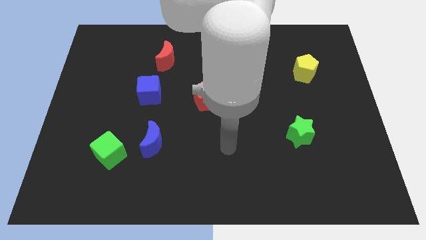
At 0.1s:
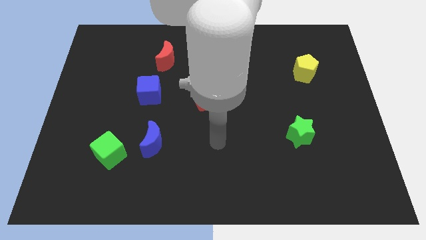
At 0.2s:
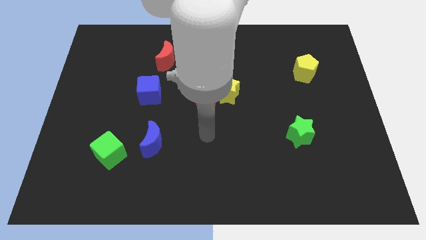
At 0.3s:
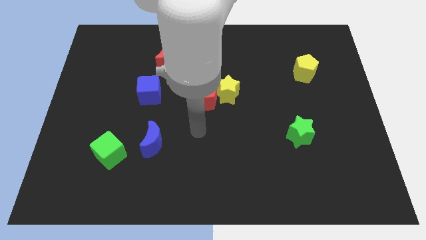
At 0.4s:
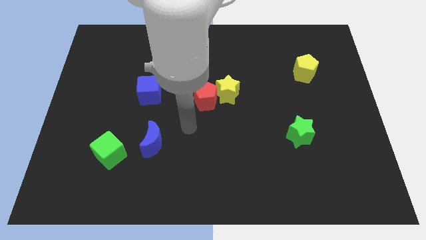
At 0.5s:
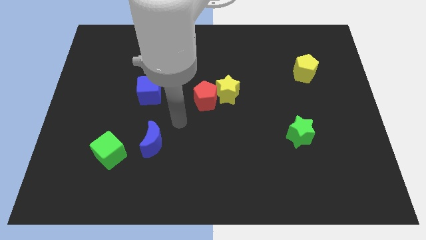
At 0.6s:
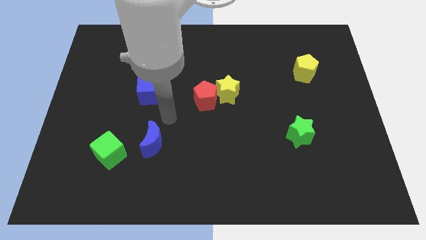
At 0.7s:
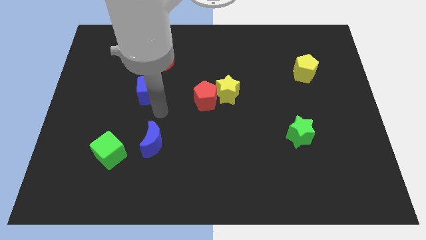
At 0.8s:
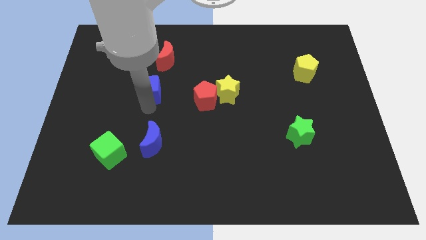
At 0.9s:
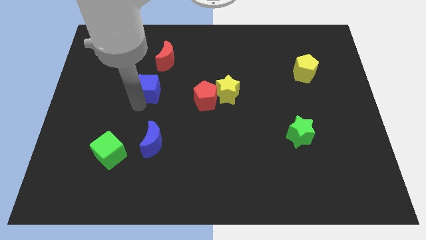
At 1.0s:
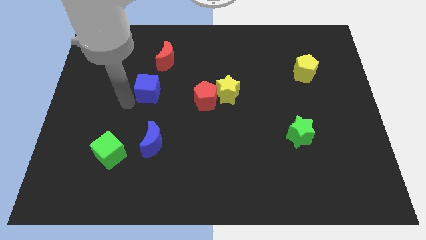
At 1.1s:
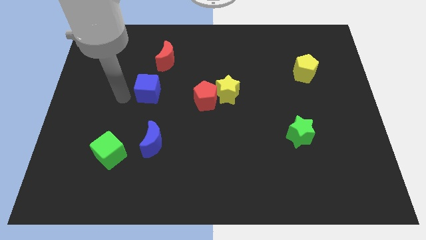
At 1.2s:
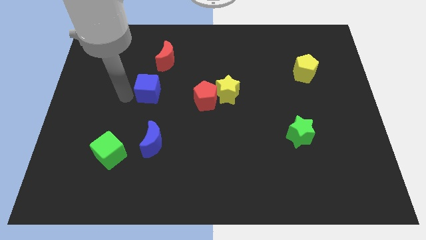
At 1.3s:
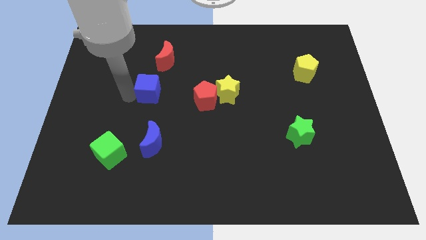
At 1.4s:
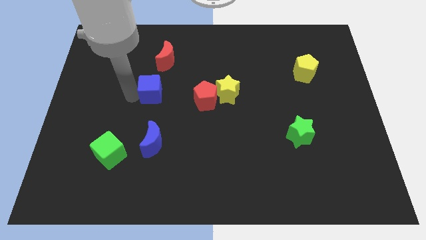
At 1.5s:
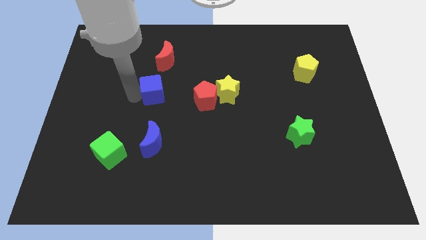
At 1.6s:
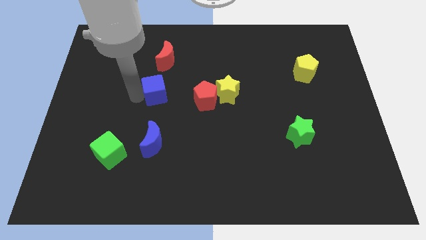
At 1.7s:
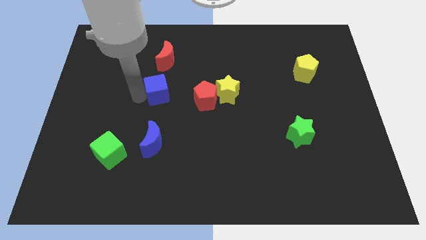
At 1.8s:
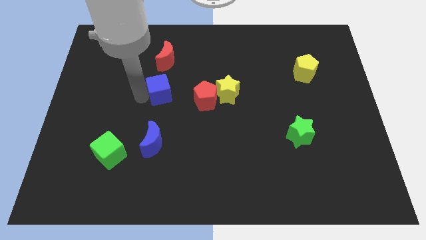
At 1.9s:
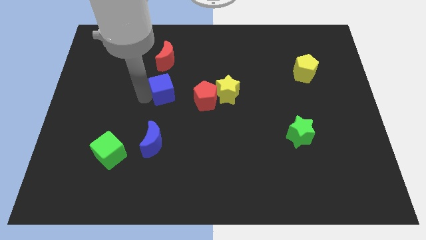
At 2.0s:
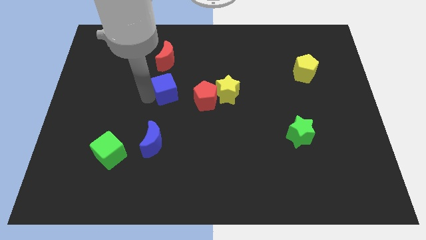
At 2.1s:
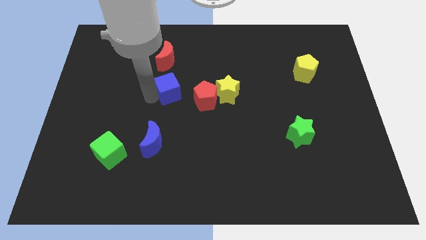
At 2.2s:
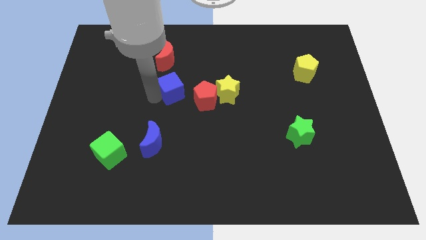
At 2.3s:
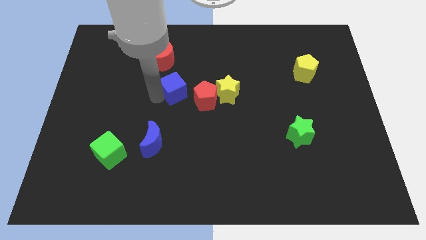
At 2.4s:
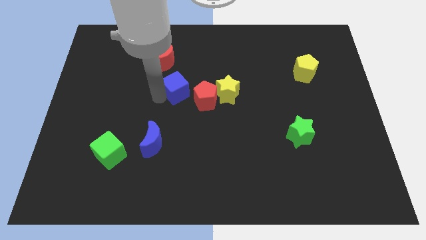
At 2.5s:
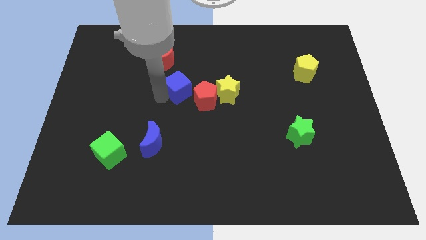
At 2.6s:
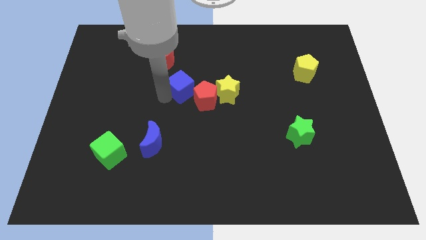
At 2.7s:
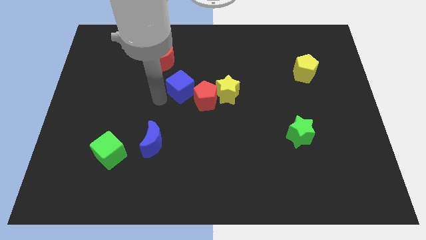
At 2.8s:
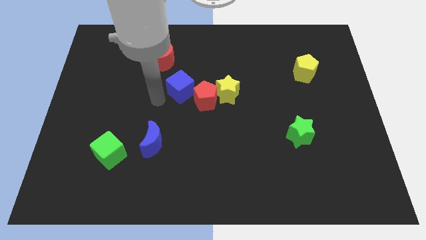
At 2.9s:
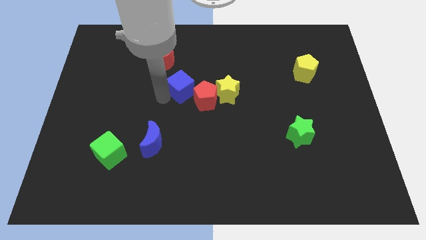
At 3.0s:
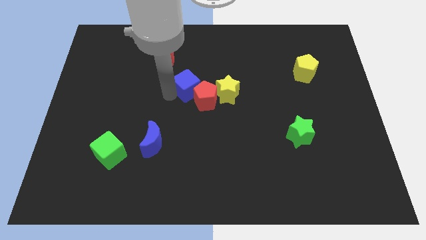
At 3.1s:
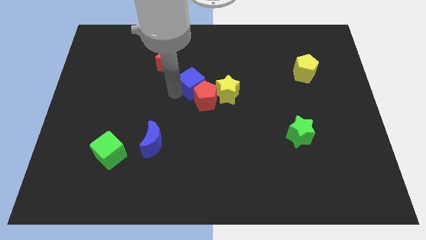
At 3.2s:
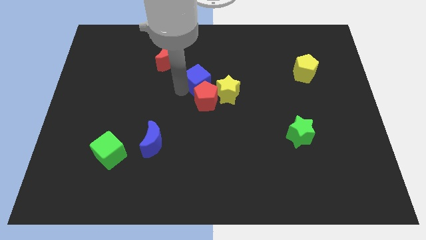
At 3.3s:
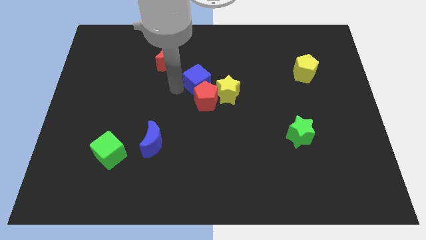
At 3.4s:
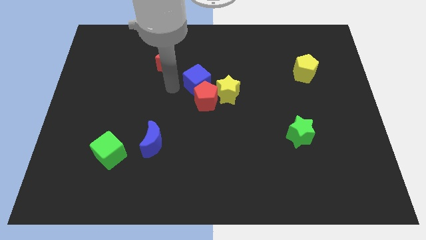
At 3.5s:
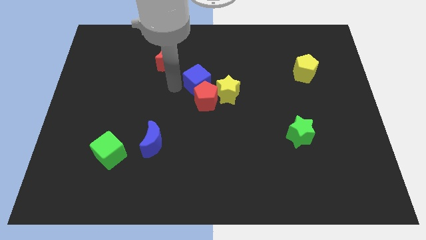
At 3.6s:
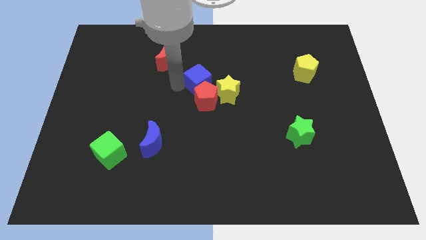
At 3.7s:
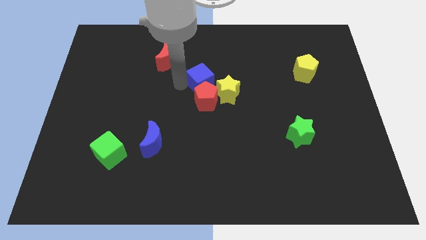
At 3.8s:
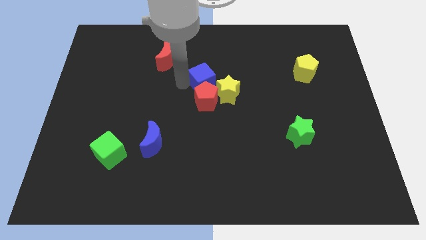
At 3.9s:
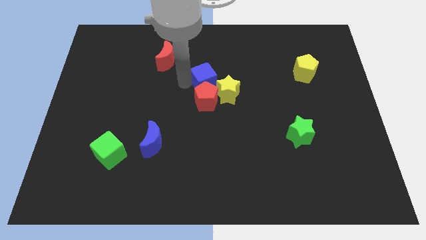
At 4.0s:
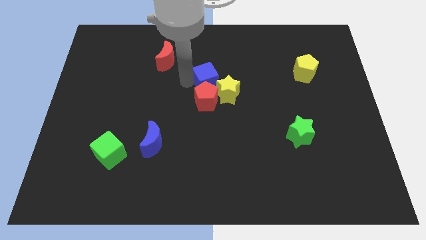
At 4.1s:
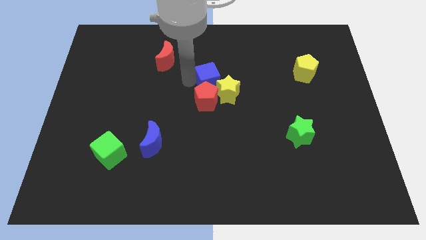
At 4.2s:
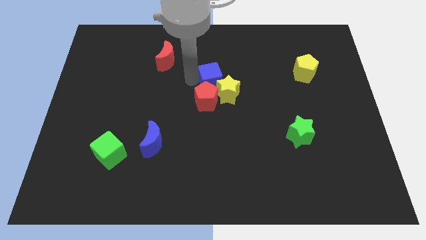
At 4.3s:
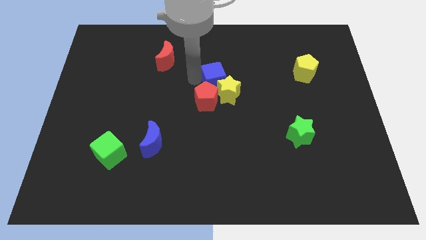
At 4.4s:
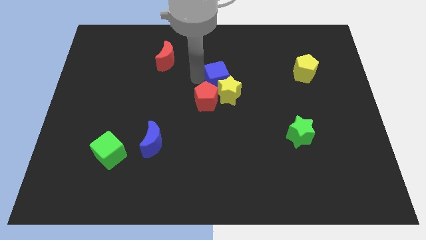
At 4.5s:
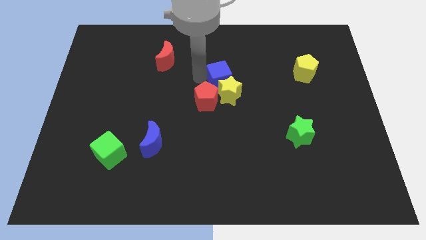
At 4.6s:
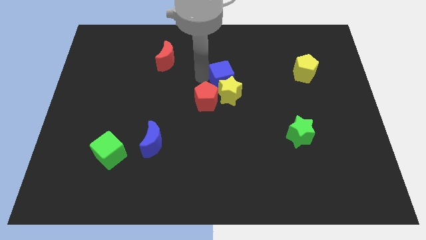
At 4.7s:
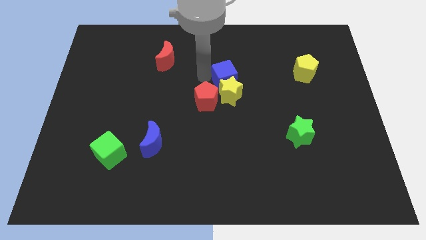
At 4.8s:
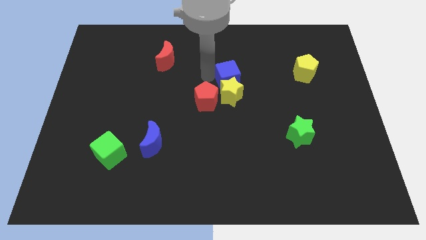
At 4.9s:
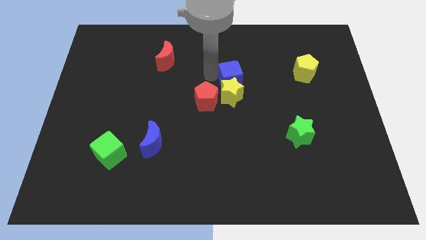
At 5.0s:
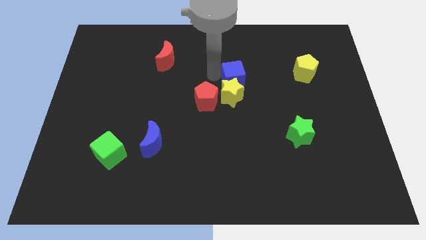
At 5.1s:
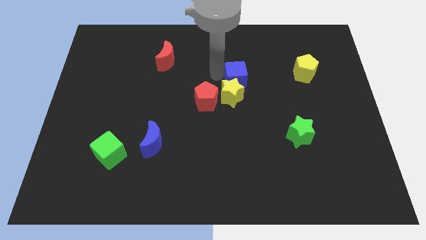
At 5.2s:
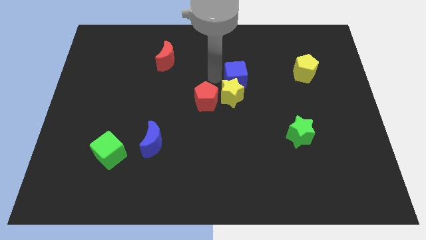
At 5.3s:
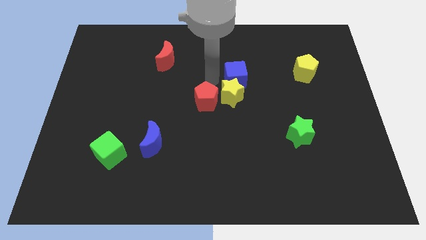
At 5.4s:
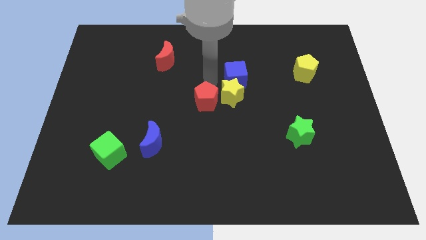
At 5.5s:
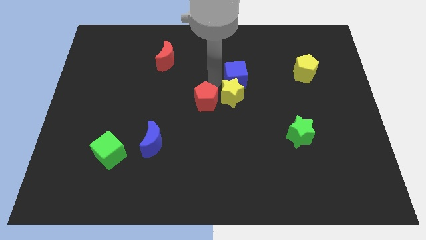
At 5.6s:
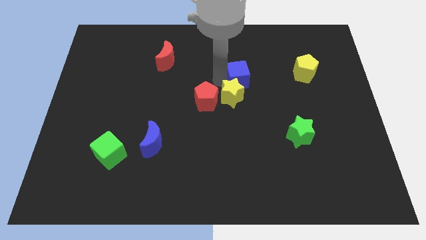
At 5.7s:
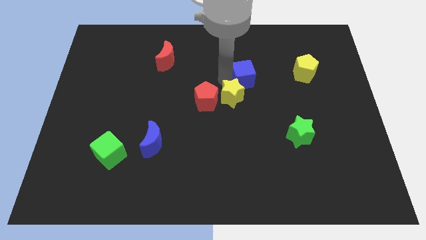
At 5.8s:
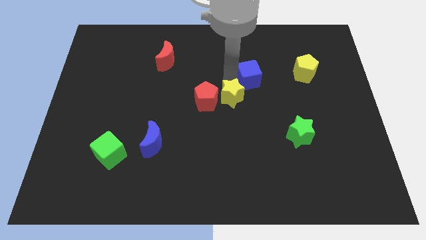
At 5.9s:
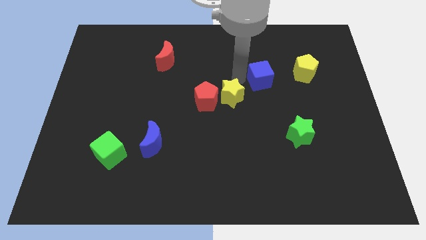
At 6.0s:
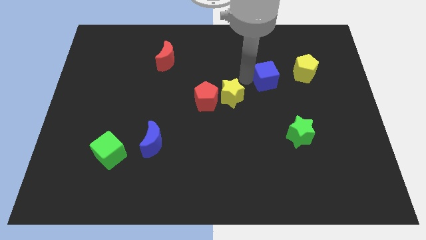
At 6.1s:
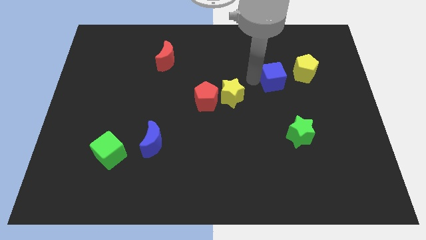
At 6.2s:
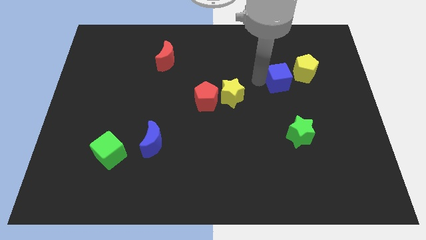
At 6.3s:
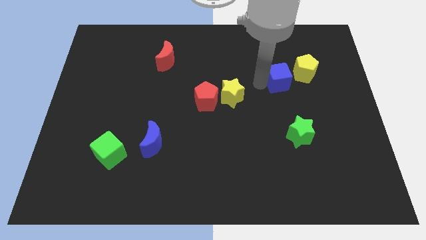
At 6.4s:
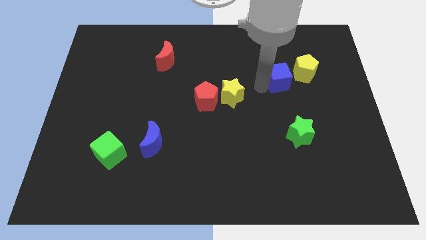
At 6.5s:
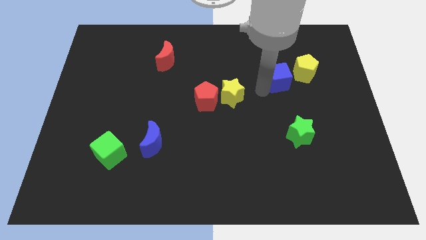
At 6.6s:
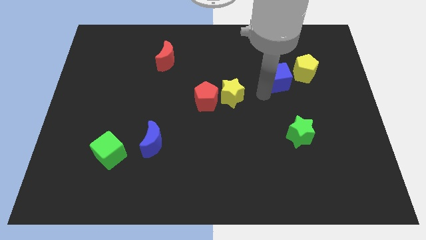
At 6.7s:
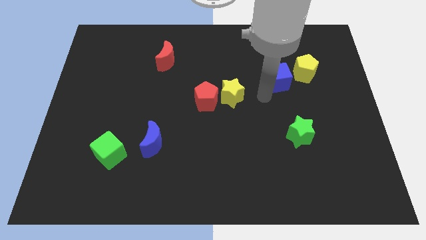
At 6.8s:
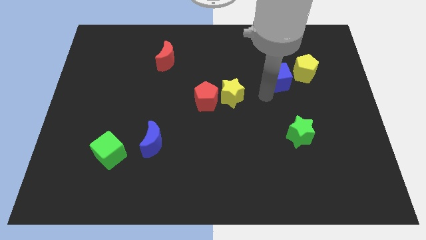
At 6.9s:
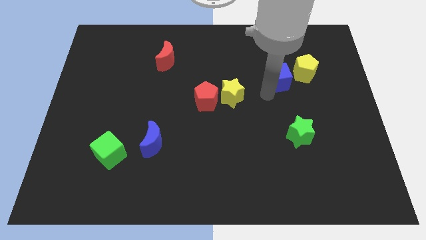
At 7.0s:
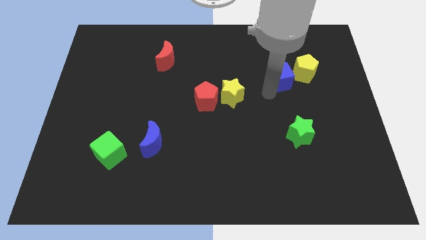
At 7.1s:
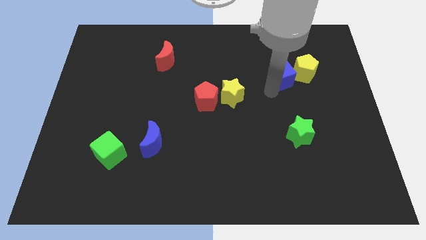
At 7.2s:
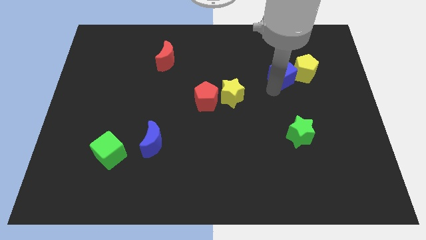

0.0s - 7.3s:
push the blue cube next to the yellow pentagon
